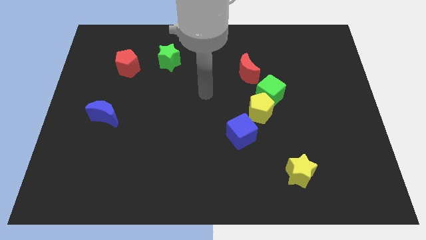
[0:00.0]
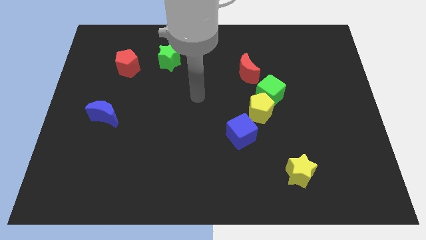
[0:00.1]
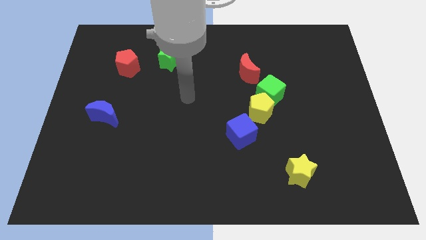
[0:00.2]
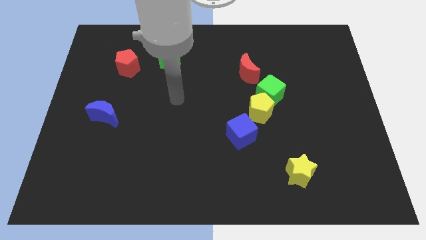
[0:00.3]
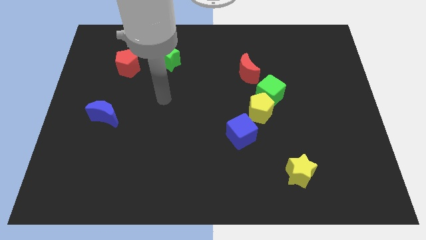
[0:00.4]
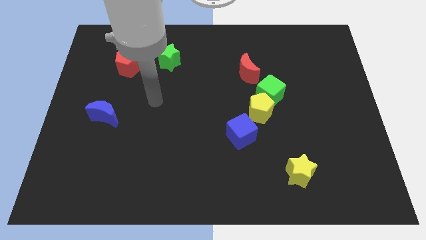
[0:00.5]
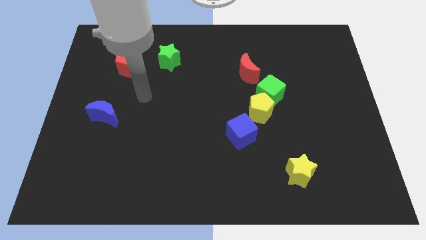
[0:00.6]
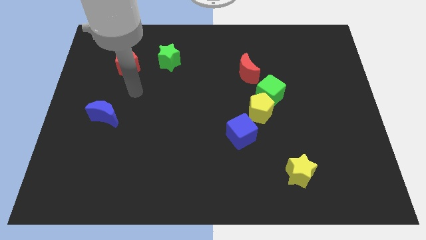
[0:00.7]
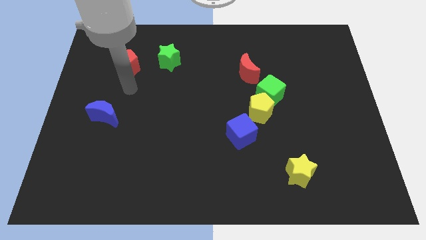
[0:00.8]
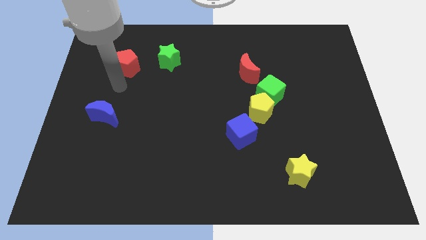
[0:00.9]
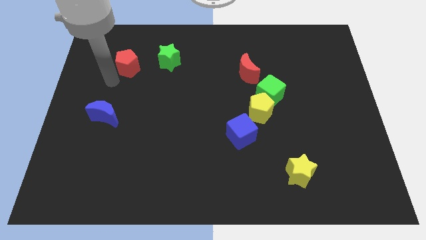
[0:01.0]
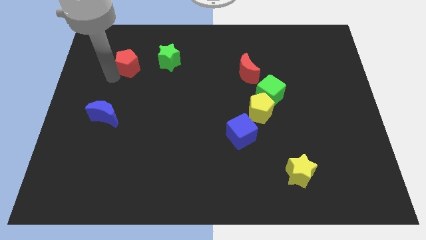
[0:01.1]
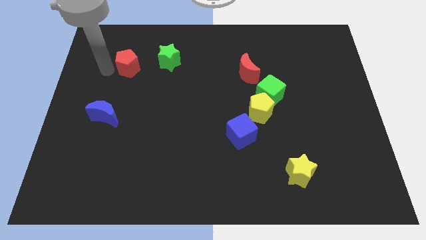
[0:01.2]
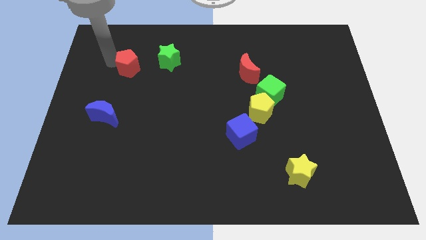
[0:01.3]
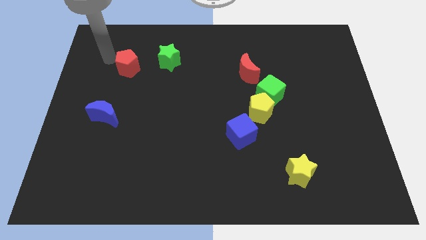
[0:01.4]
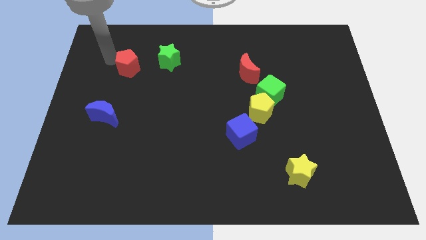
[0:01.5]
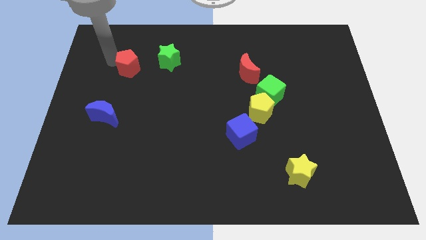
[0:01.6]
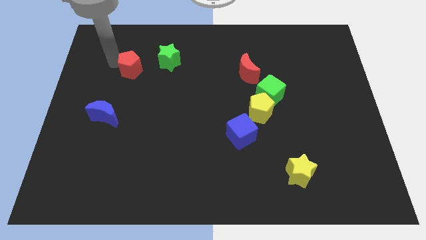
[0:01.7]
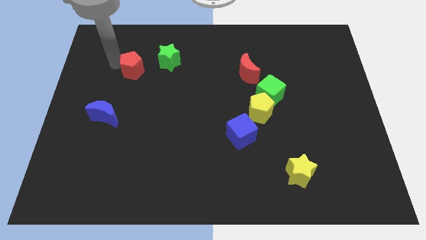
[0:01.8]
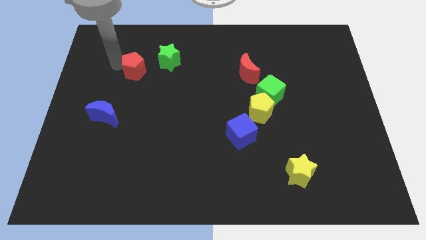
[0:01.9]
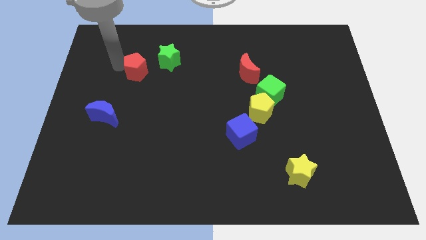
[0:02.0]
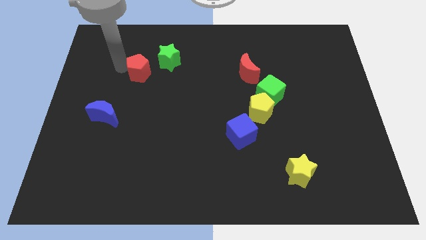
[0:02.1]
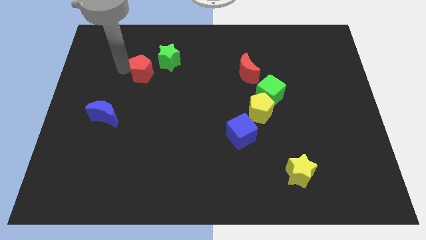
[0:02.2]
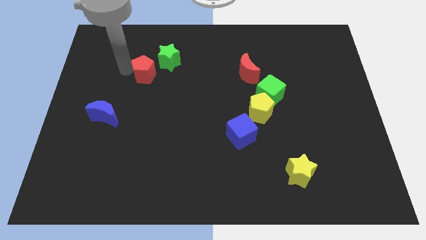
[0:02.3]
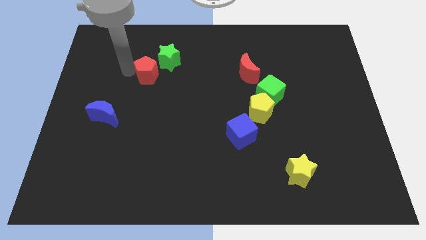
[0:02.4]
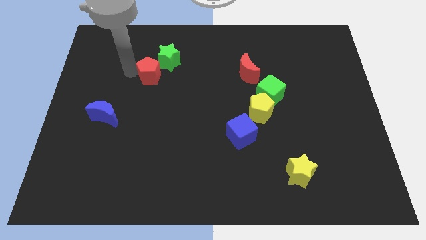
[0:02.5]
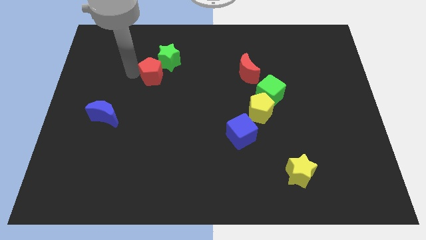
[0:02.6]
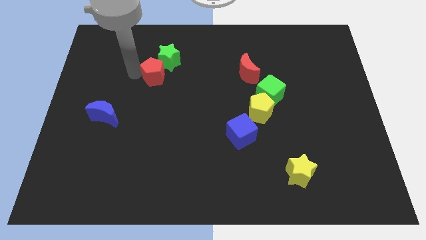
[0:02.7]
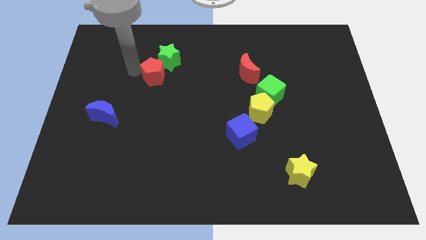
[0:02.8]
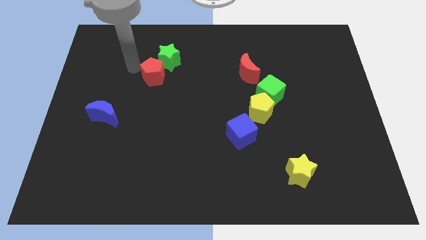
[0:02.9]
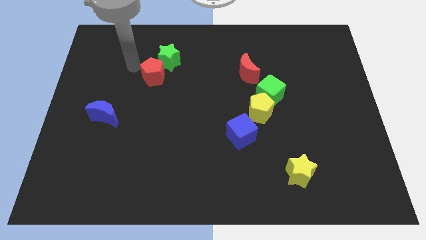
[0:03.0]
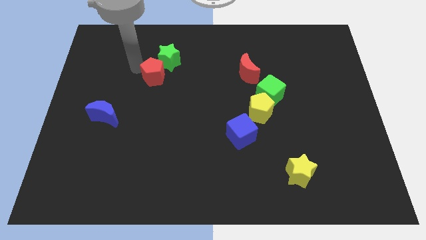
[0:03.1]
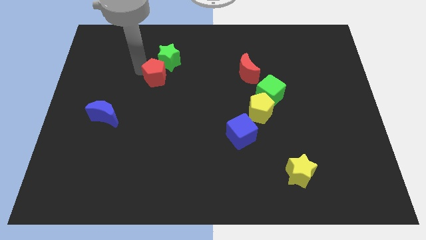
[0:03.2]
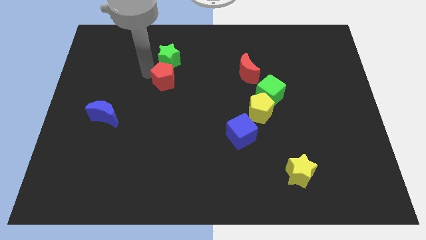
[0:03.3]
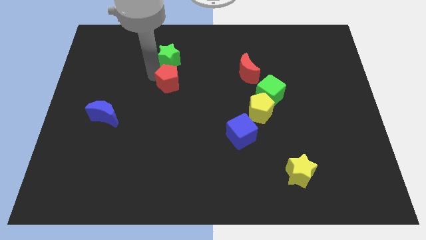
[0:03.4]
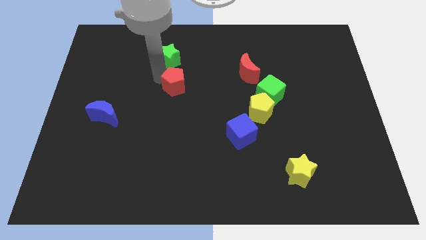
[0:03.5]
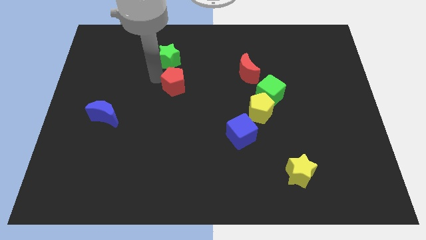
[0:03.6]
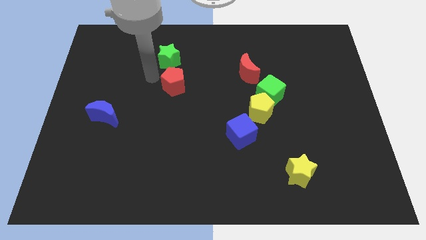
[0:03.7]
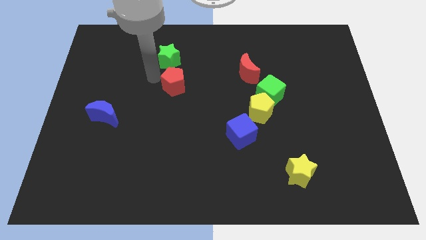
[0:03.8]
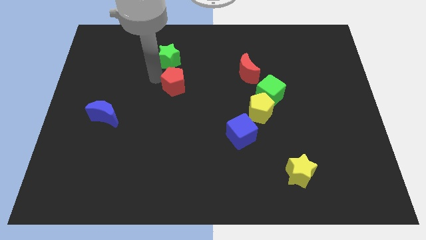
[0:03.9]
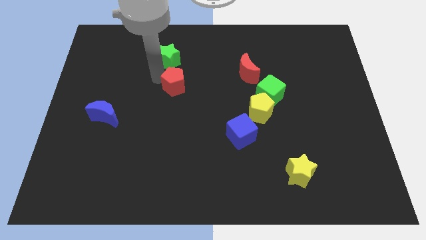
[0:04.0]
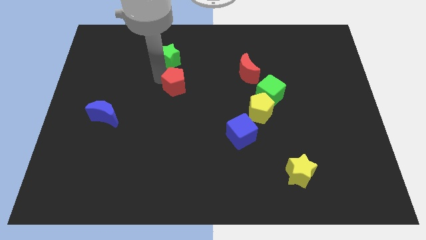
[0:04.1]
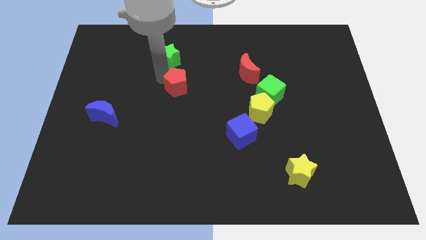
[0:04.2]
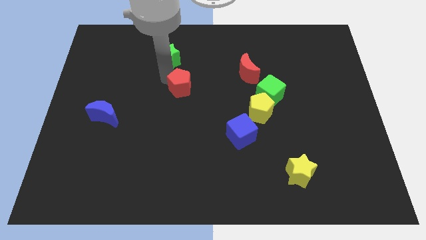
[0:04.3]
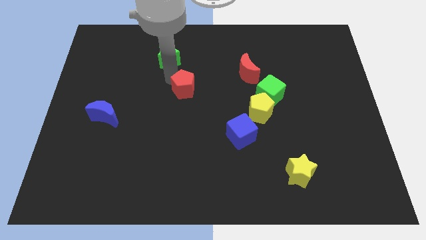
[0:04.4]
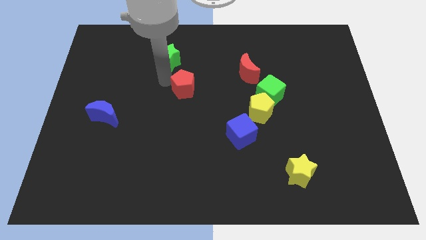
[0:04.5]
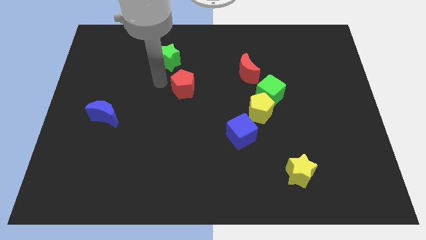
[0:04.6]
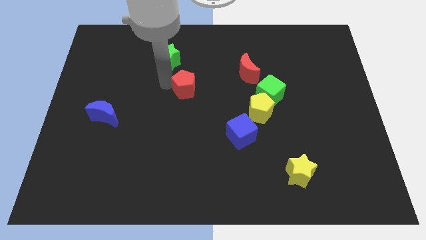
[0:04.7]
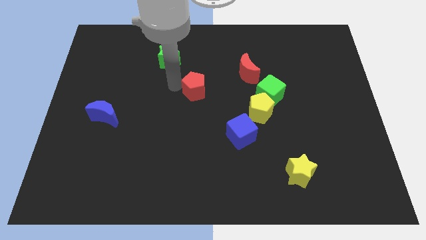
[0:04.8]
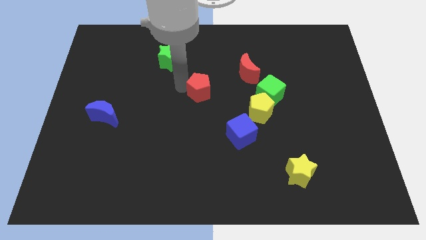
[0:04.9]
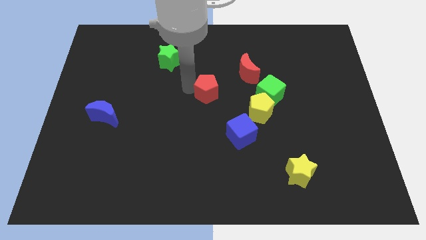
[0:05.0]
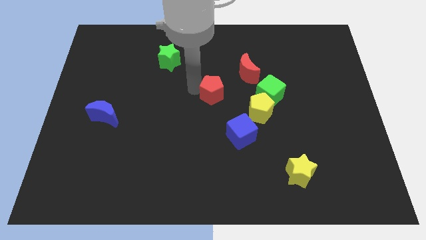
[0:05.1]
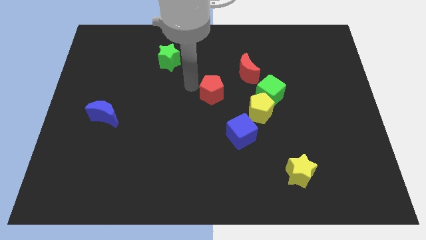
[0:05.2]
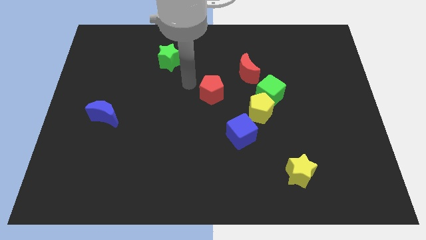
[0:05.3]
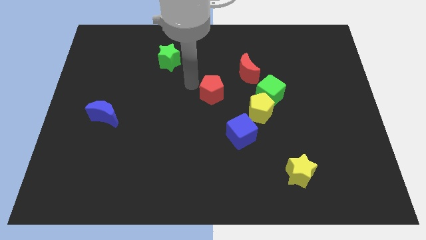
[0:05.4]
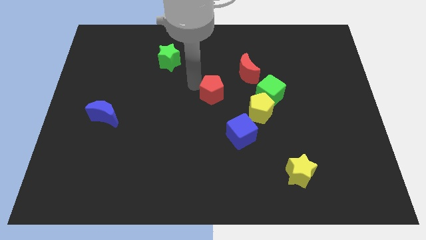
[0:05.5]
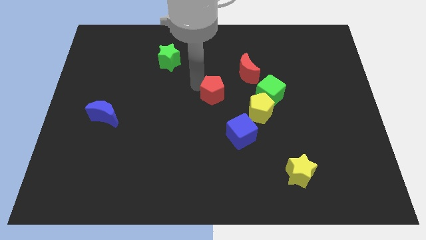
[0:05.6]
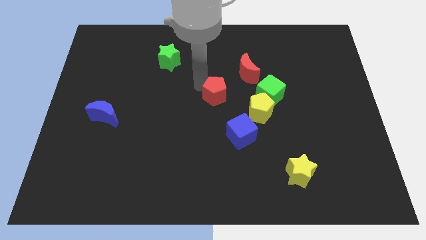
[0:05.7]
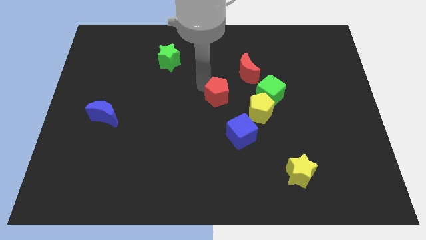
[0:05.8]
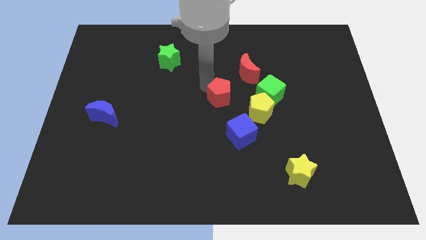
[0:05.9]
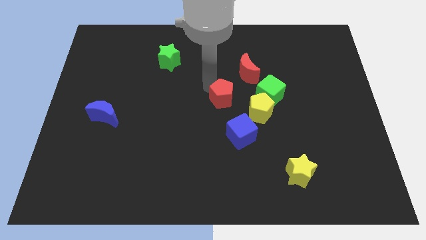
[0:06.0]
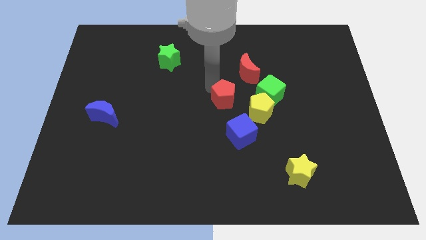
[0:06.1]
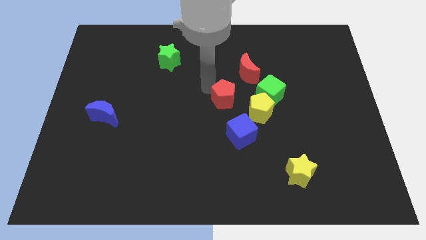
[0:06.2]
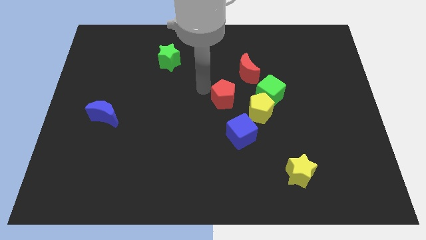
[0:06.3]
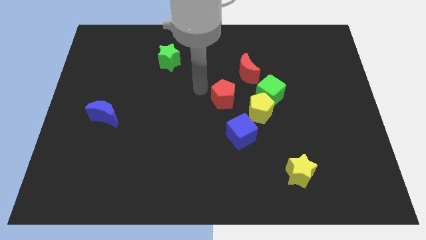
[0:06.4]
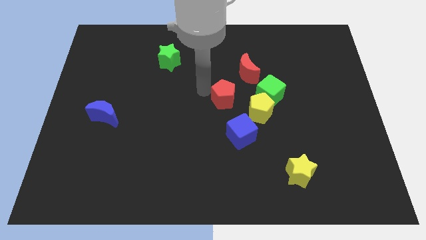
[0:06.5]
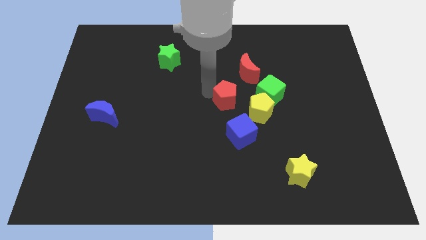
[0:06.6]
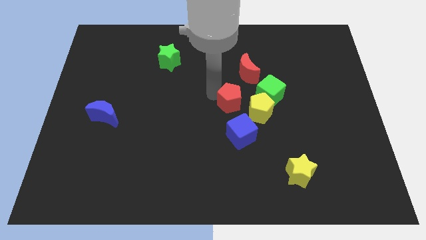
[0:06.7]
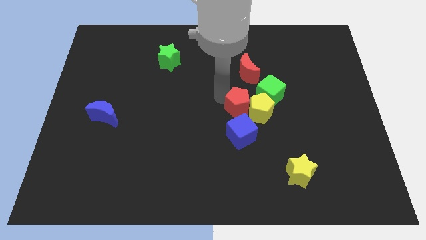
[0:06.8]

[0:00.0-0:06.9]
slide the red pentagon close to the yellow pentagon
